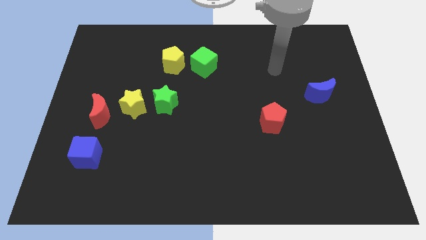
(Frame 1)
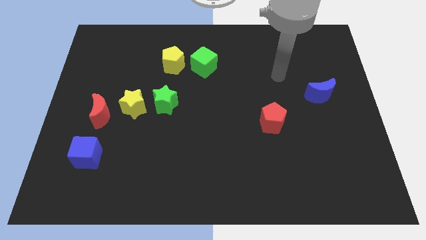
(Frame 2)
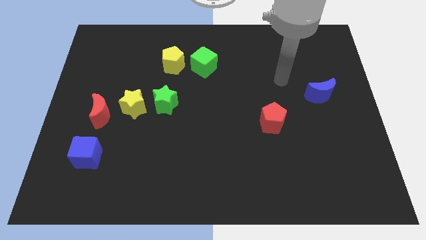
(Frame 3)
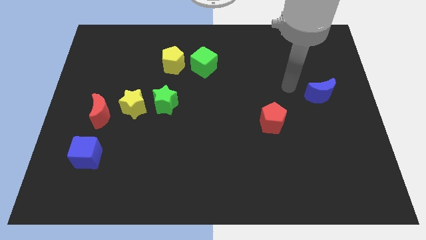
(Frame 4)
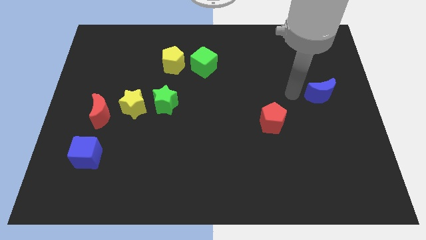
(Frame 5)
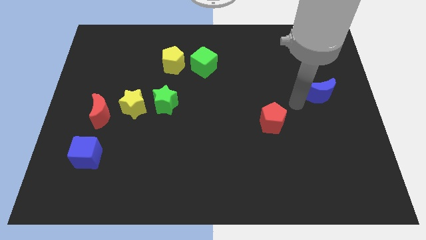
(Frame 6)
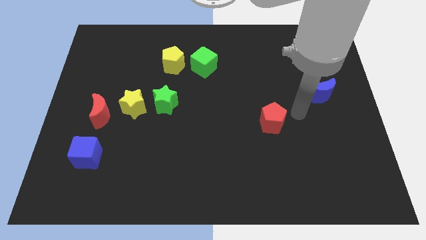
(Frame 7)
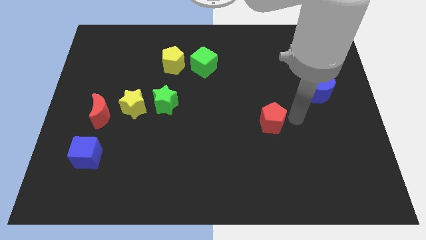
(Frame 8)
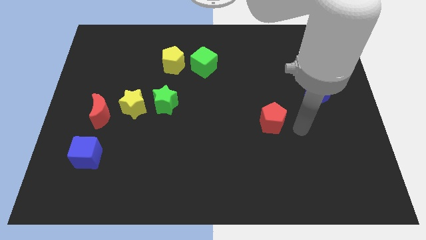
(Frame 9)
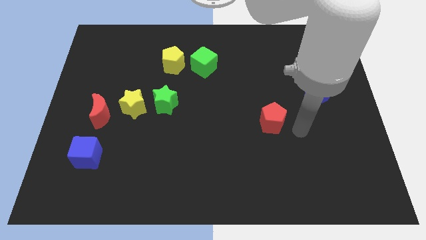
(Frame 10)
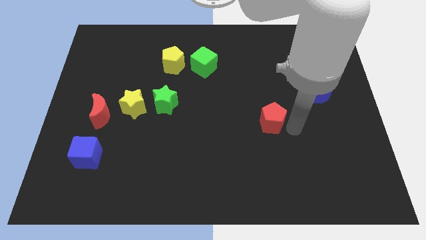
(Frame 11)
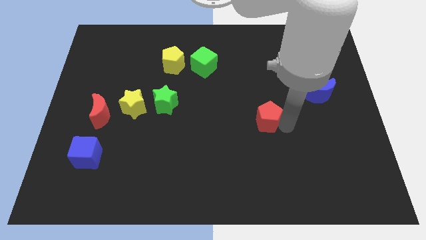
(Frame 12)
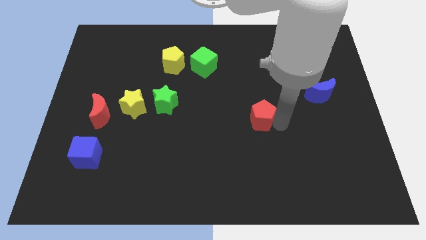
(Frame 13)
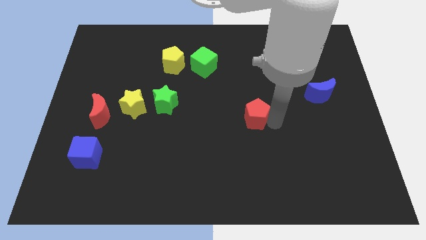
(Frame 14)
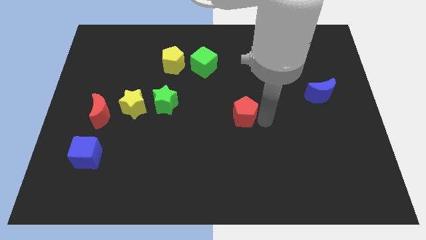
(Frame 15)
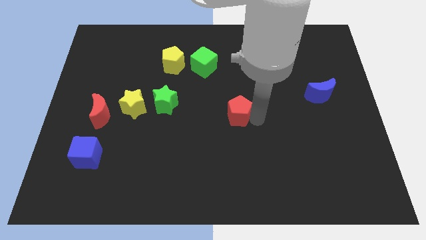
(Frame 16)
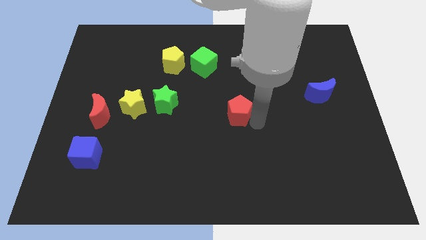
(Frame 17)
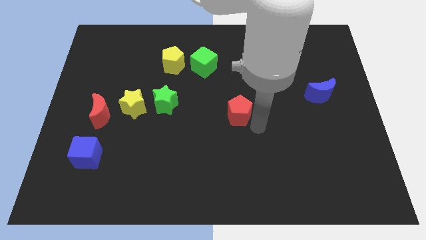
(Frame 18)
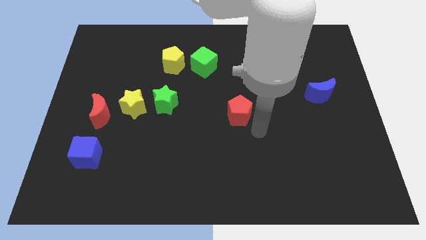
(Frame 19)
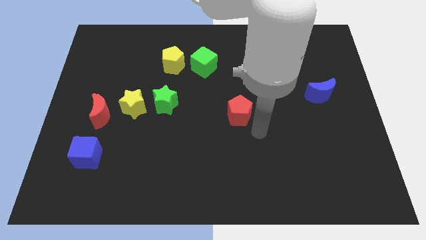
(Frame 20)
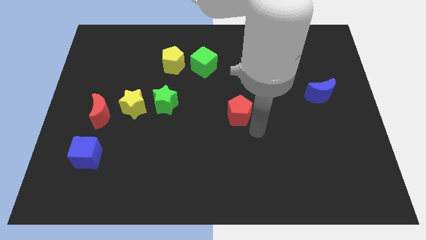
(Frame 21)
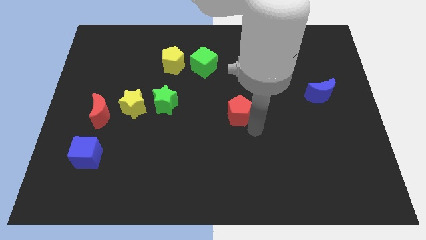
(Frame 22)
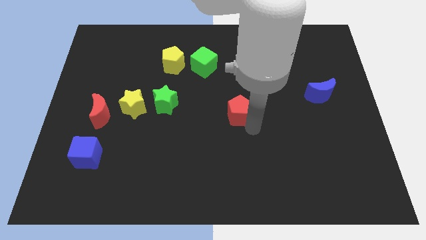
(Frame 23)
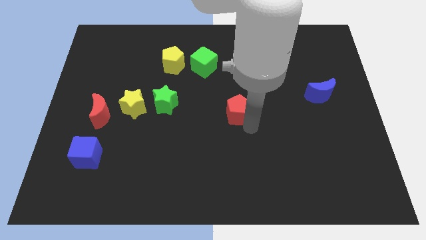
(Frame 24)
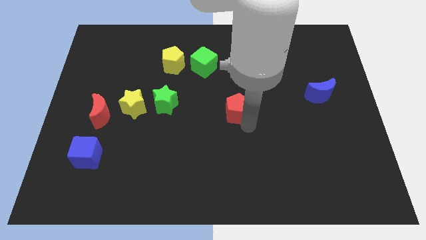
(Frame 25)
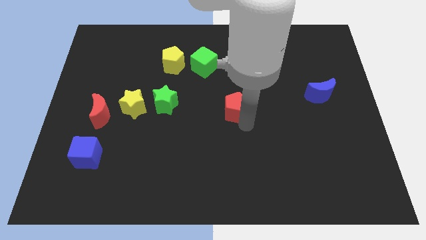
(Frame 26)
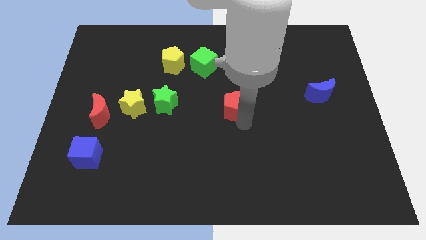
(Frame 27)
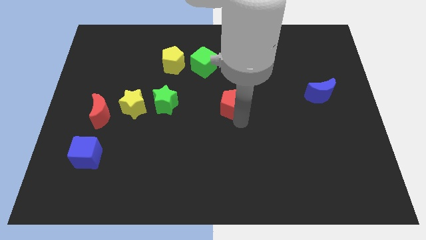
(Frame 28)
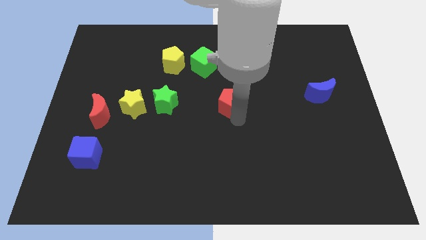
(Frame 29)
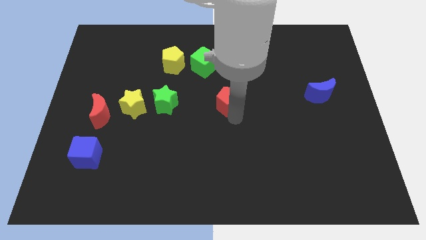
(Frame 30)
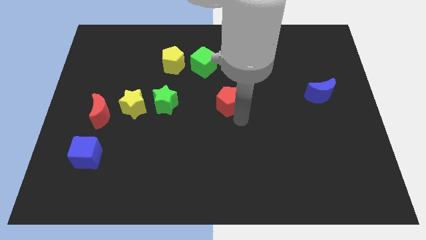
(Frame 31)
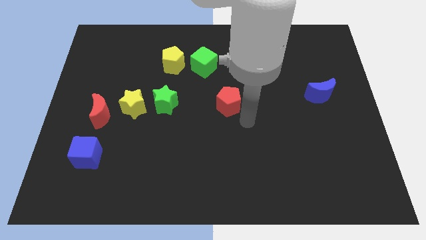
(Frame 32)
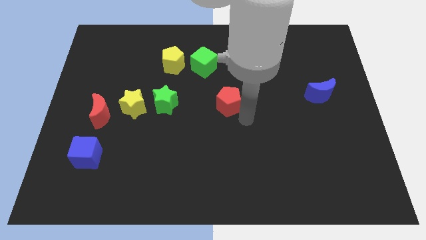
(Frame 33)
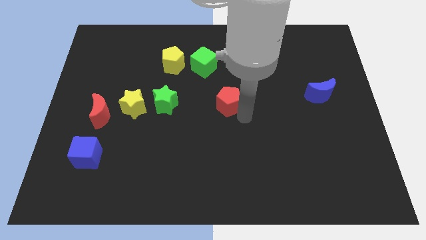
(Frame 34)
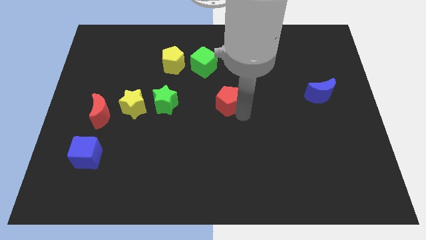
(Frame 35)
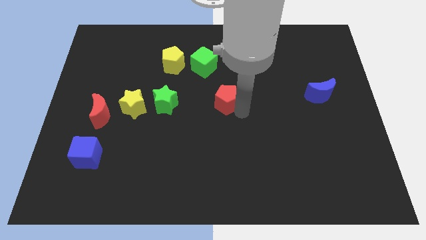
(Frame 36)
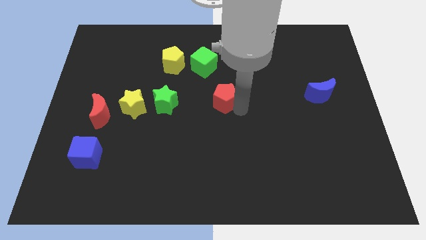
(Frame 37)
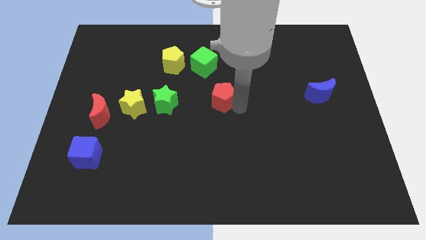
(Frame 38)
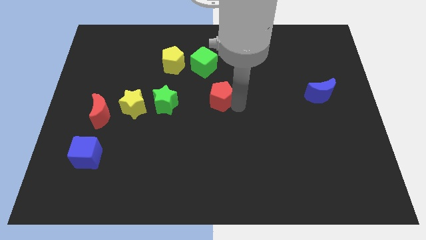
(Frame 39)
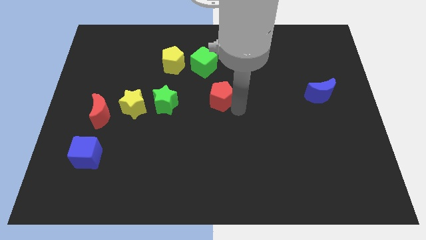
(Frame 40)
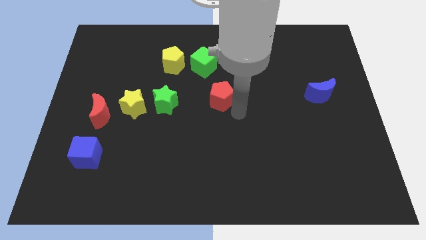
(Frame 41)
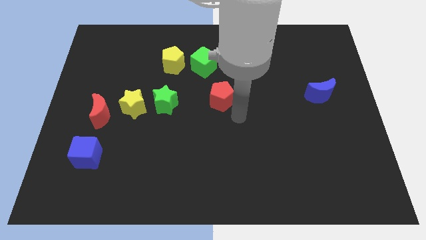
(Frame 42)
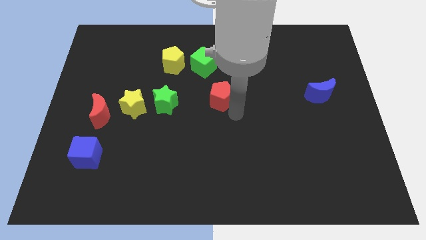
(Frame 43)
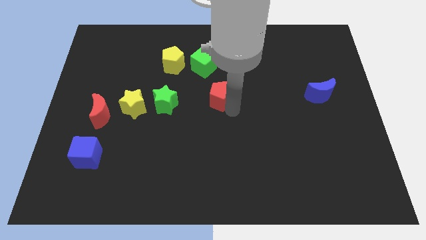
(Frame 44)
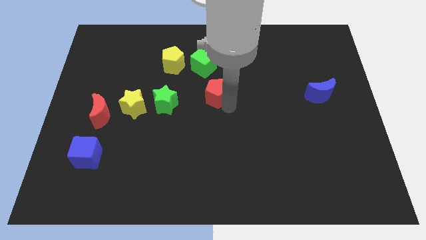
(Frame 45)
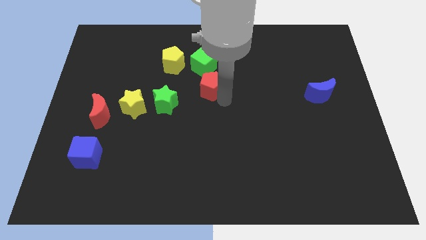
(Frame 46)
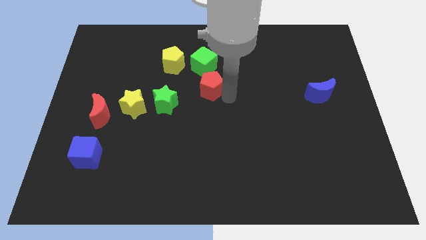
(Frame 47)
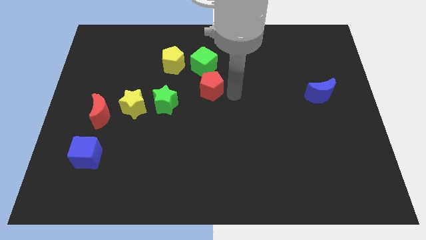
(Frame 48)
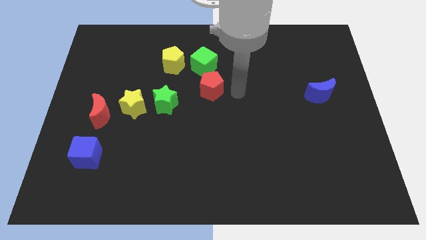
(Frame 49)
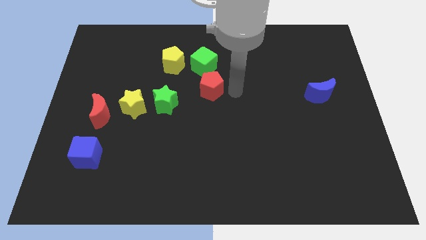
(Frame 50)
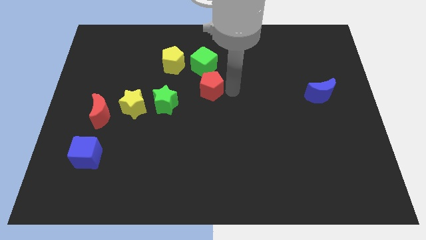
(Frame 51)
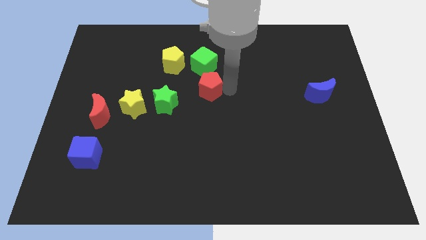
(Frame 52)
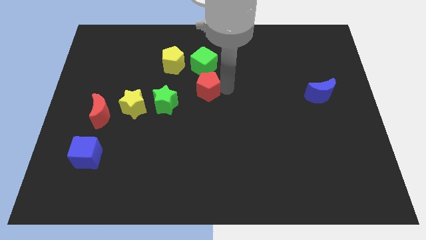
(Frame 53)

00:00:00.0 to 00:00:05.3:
push the red pentagon to the top right of the green star

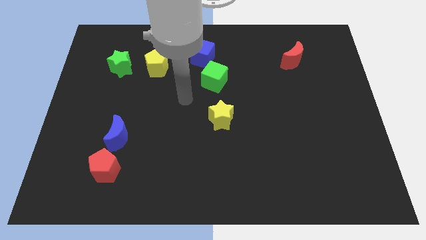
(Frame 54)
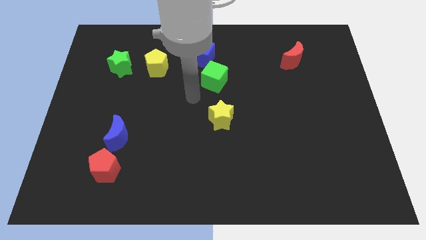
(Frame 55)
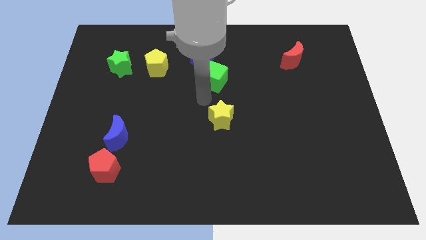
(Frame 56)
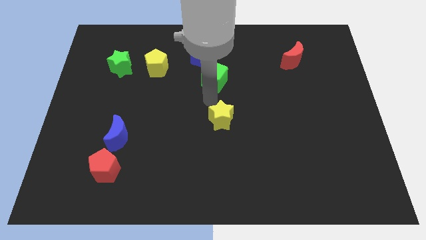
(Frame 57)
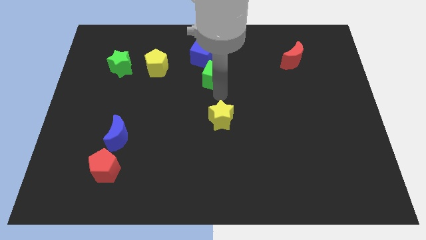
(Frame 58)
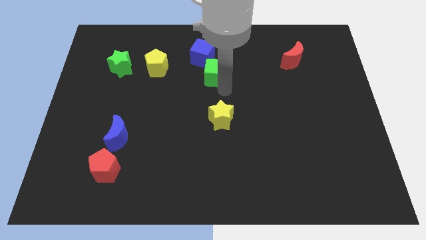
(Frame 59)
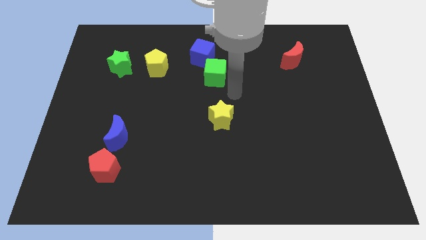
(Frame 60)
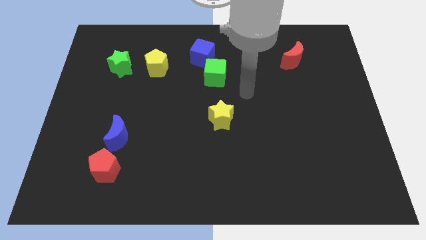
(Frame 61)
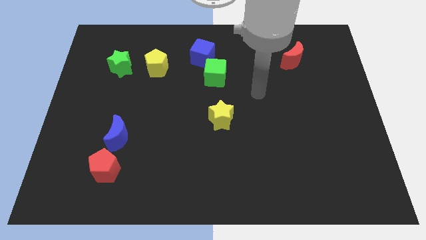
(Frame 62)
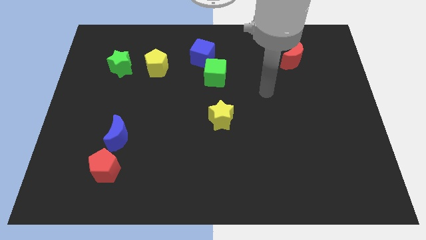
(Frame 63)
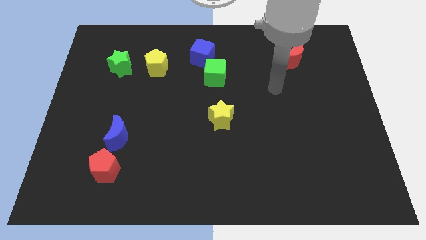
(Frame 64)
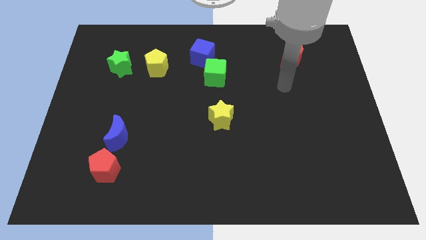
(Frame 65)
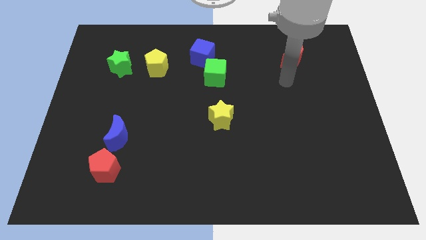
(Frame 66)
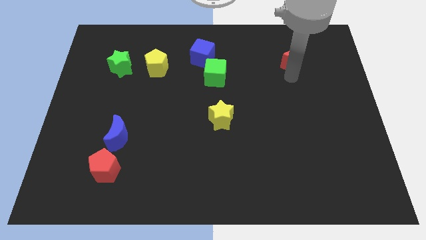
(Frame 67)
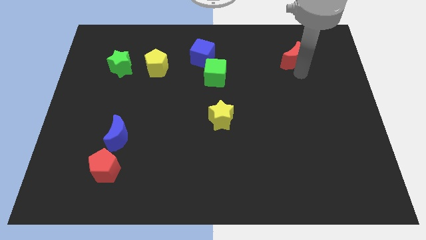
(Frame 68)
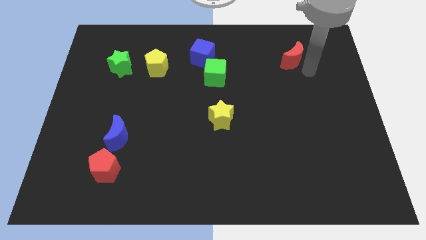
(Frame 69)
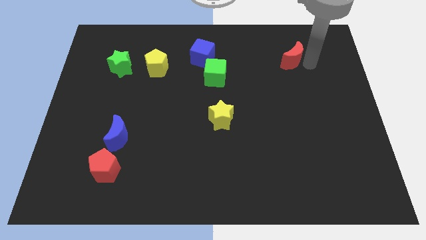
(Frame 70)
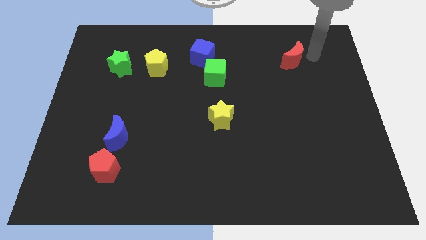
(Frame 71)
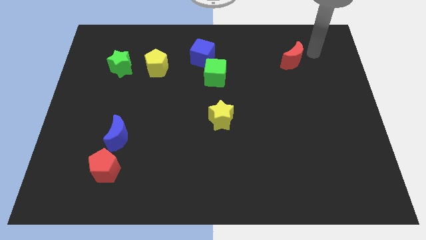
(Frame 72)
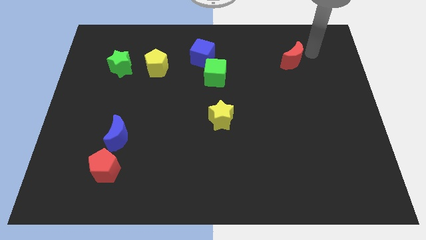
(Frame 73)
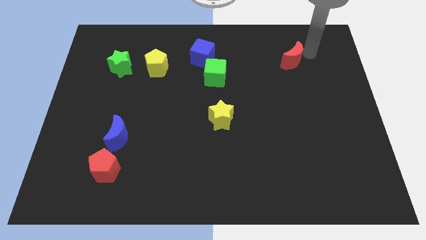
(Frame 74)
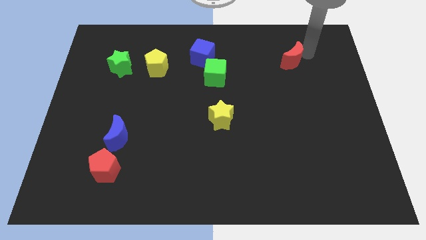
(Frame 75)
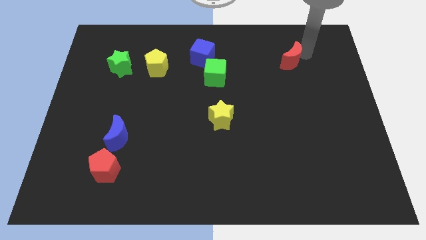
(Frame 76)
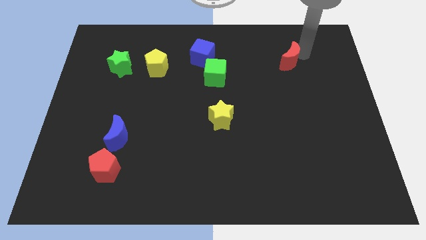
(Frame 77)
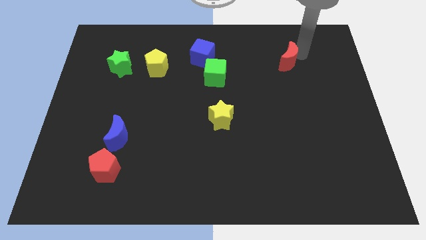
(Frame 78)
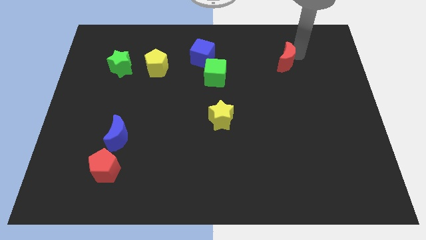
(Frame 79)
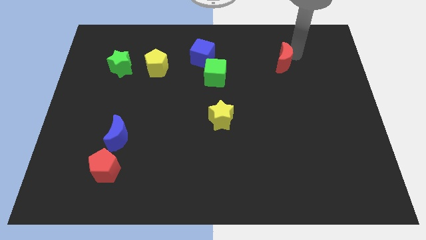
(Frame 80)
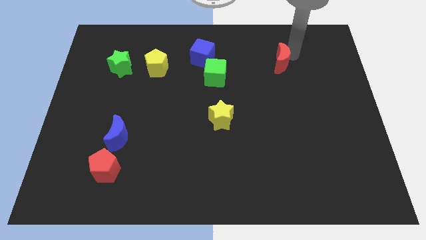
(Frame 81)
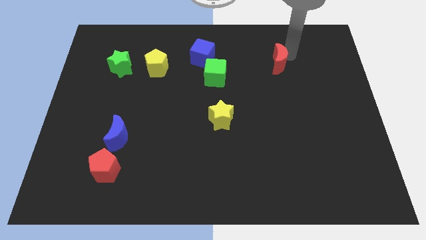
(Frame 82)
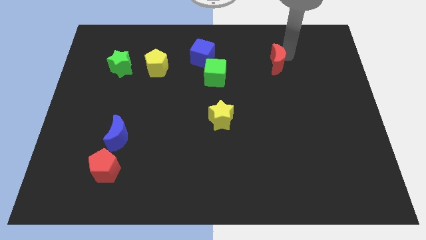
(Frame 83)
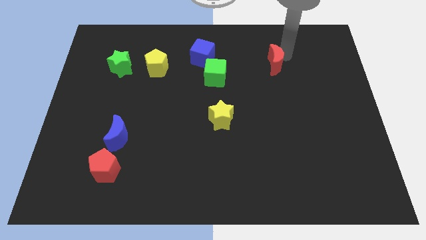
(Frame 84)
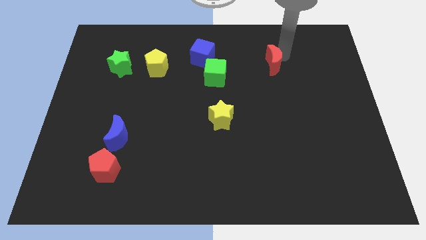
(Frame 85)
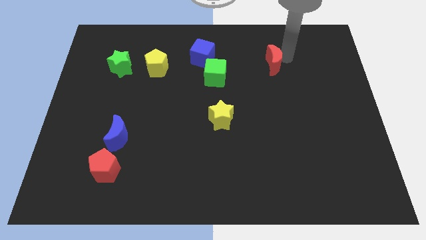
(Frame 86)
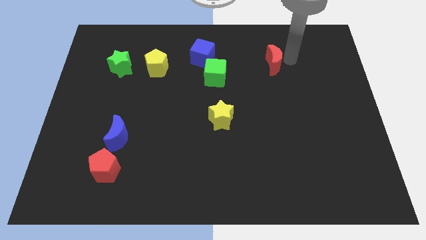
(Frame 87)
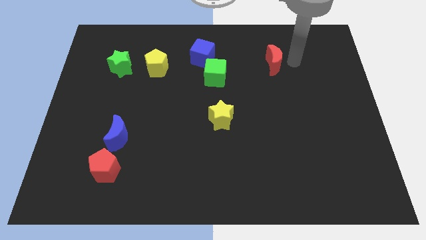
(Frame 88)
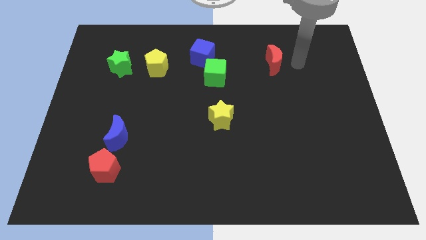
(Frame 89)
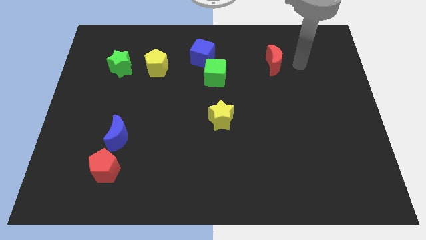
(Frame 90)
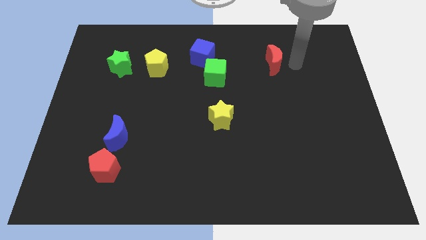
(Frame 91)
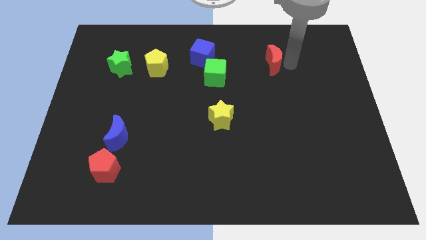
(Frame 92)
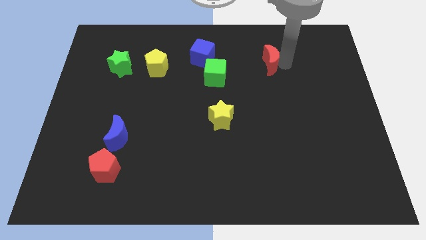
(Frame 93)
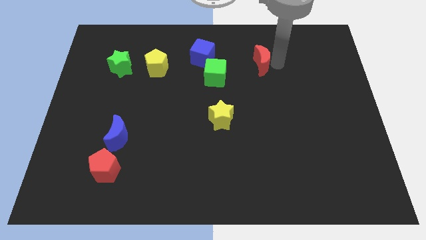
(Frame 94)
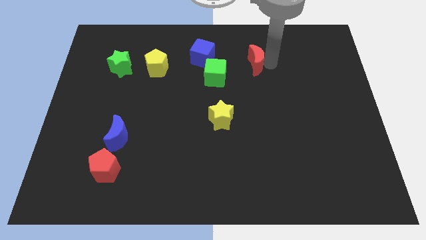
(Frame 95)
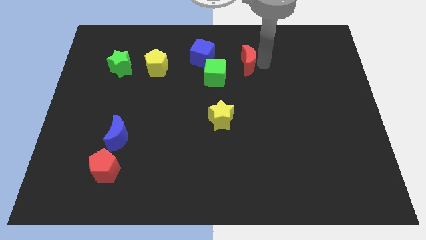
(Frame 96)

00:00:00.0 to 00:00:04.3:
slide the red moon diagonally up and to the right of the green cube
